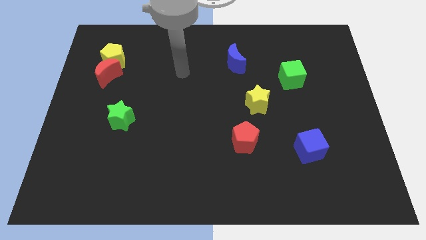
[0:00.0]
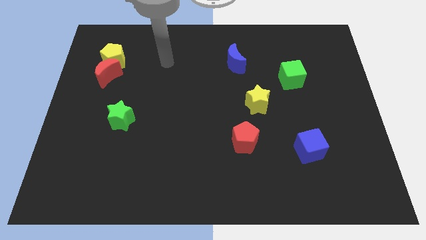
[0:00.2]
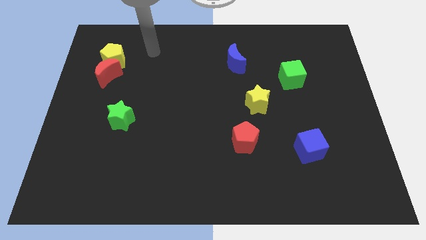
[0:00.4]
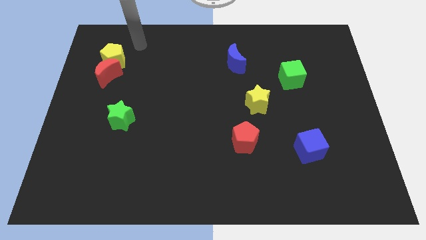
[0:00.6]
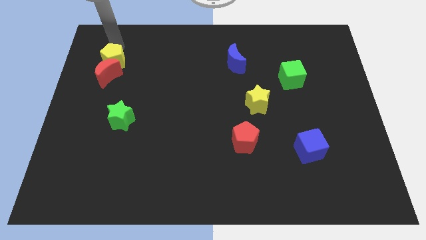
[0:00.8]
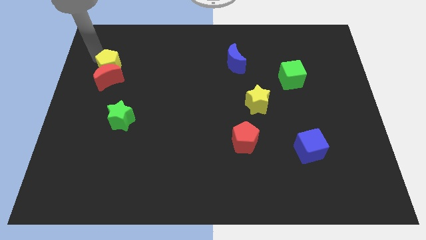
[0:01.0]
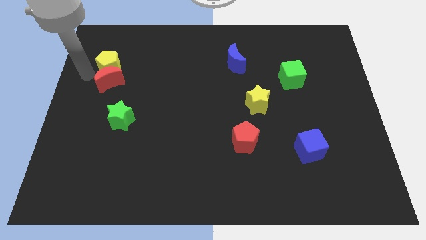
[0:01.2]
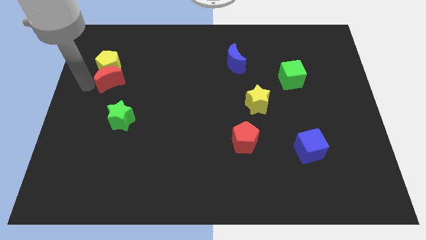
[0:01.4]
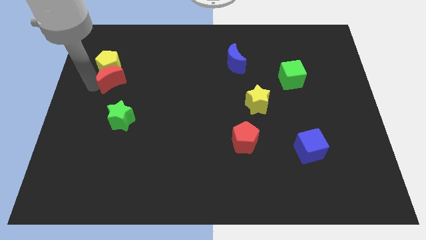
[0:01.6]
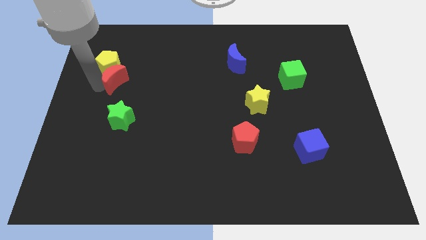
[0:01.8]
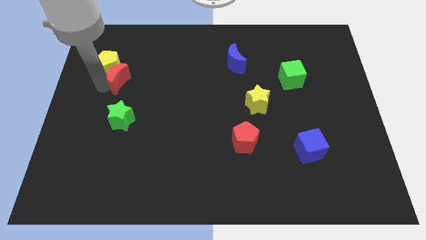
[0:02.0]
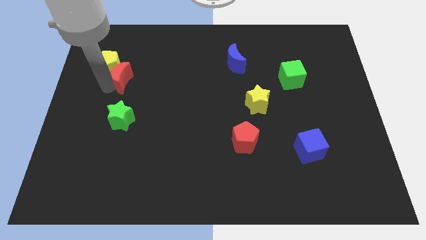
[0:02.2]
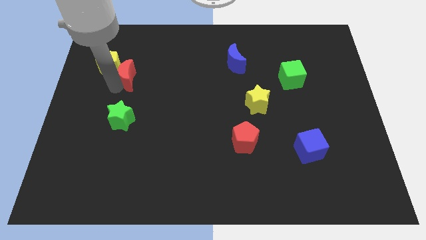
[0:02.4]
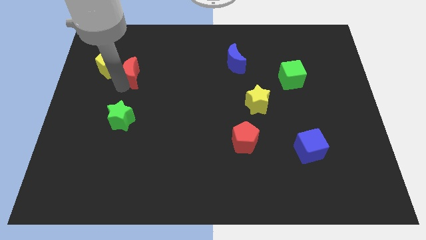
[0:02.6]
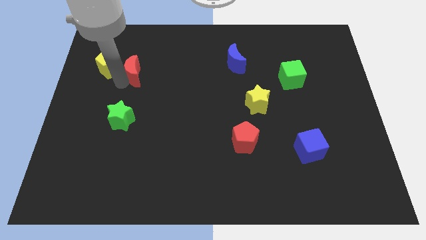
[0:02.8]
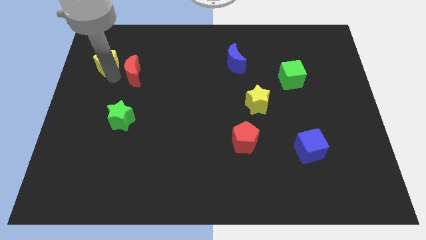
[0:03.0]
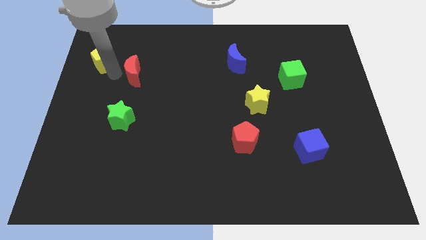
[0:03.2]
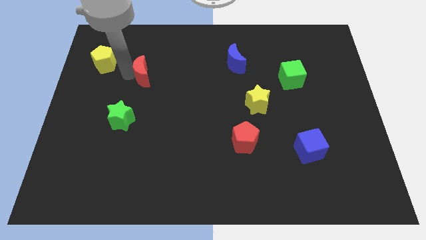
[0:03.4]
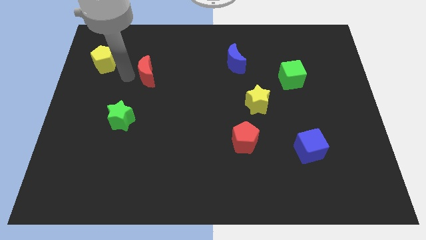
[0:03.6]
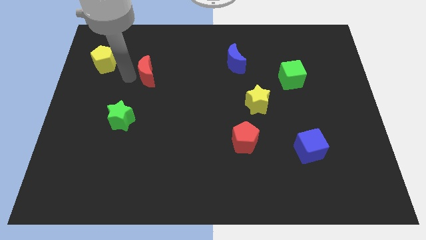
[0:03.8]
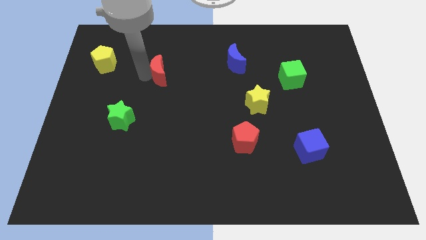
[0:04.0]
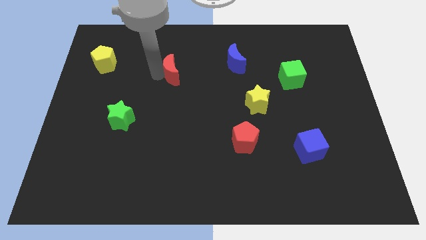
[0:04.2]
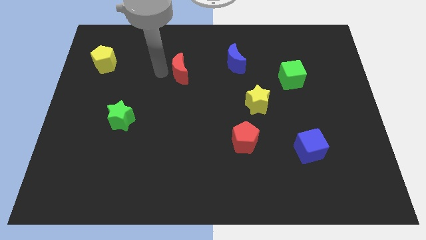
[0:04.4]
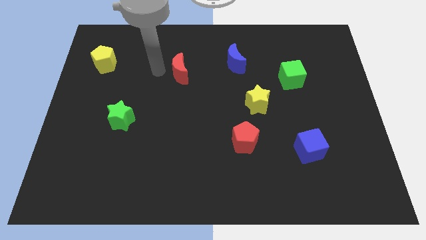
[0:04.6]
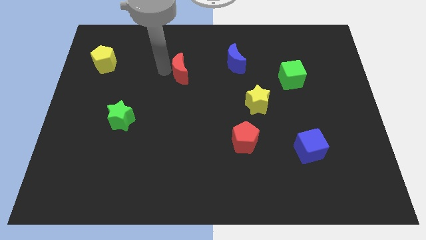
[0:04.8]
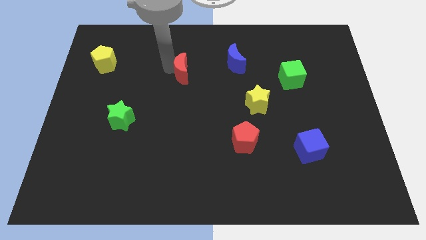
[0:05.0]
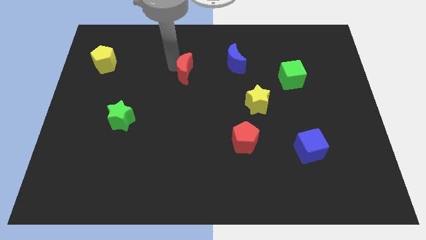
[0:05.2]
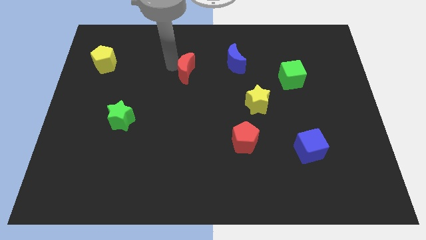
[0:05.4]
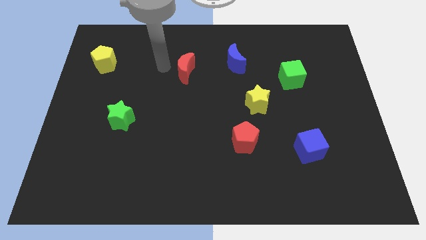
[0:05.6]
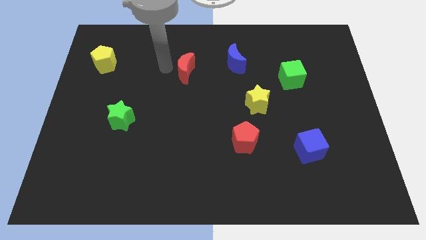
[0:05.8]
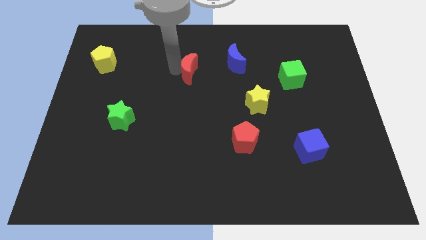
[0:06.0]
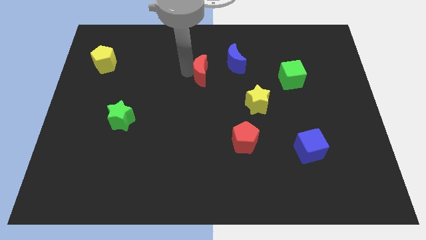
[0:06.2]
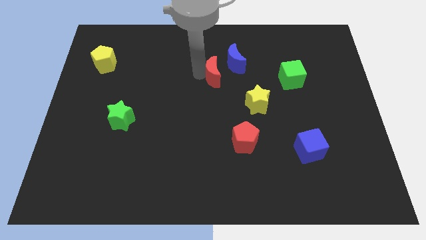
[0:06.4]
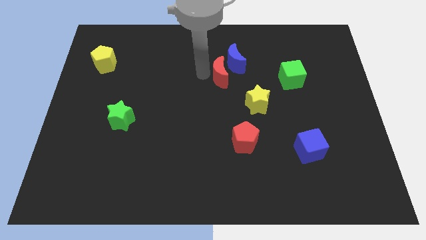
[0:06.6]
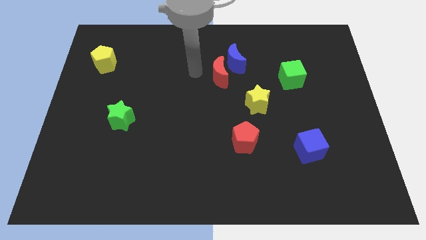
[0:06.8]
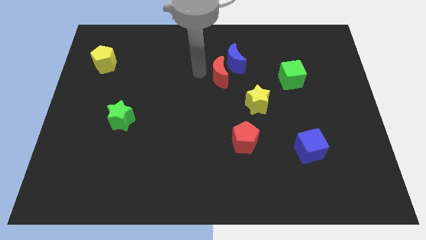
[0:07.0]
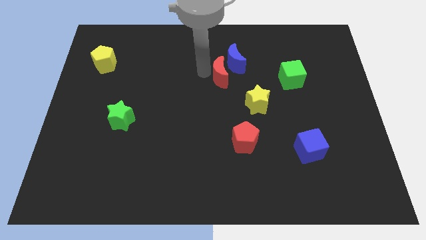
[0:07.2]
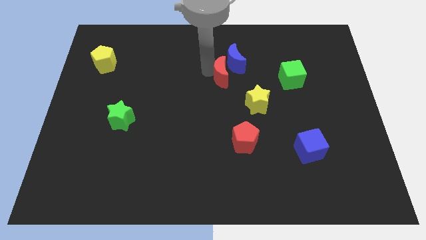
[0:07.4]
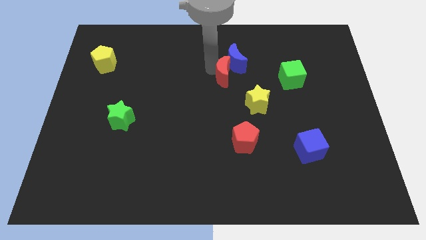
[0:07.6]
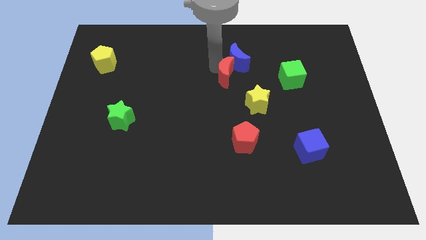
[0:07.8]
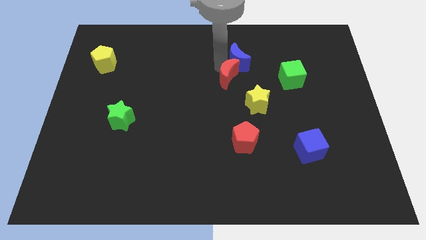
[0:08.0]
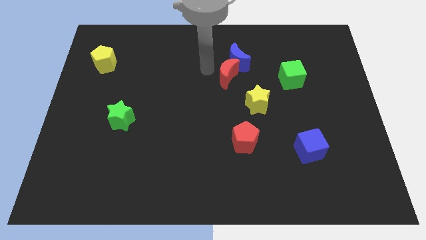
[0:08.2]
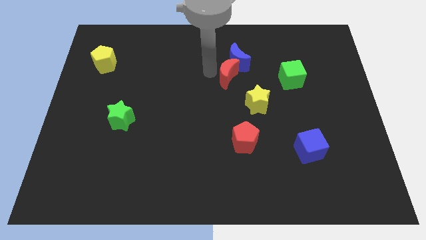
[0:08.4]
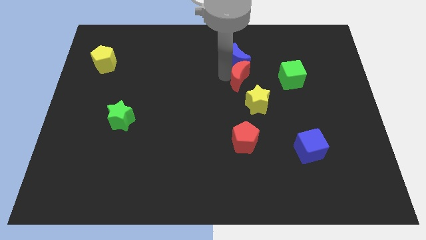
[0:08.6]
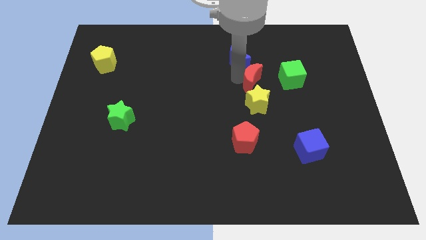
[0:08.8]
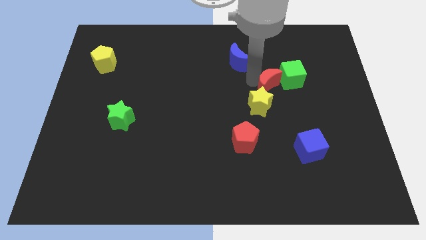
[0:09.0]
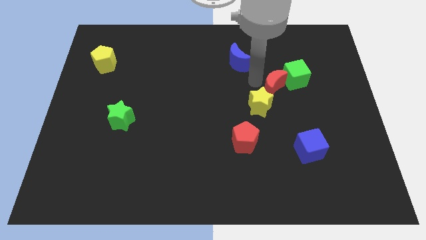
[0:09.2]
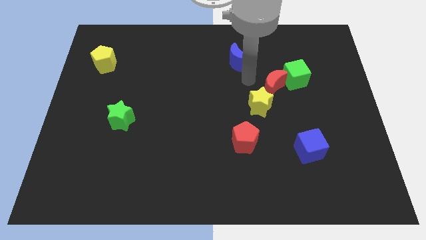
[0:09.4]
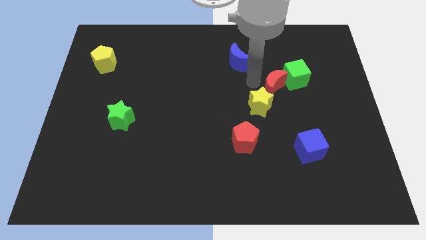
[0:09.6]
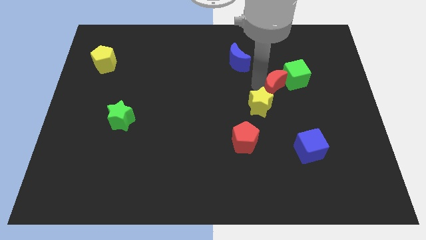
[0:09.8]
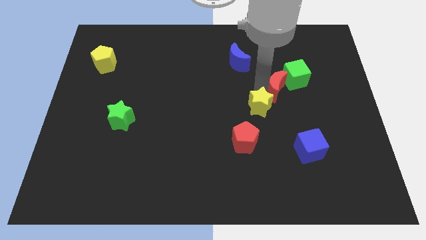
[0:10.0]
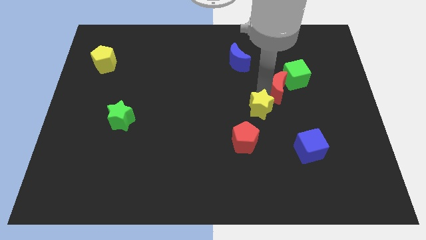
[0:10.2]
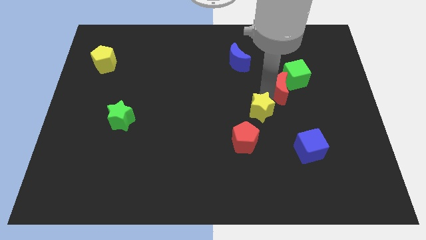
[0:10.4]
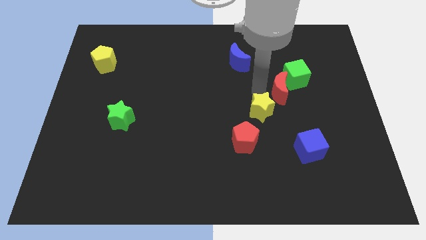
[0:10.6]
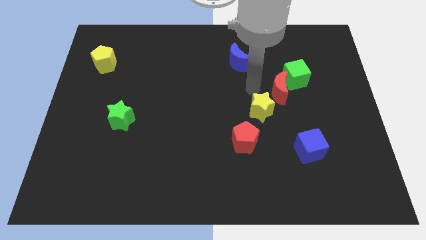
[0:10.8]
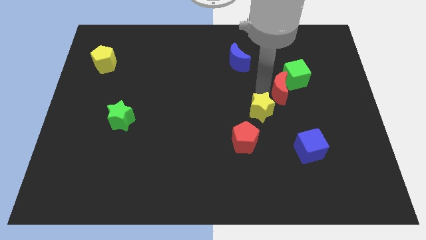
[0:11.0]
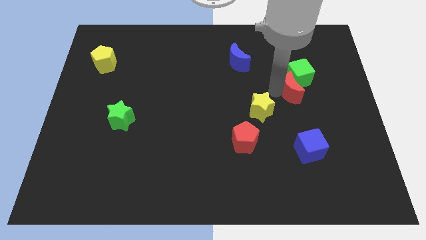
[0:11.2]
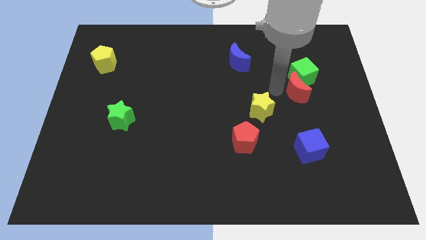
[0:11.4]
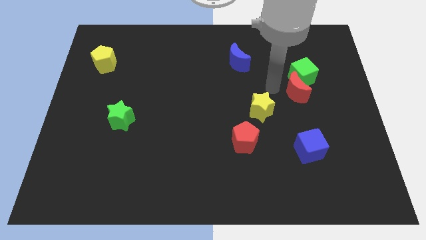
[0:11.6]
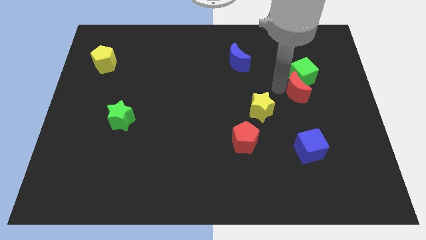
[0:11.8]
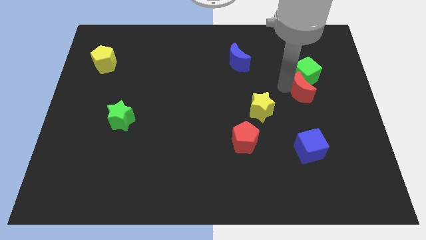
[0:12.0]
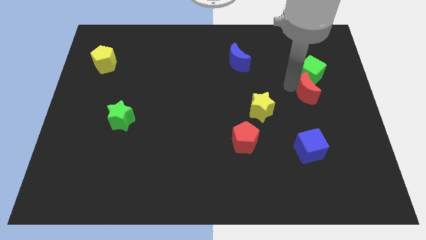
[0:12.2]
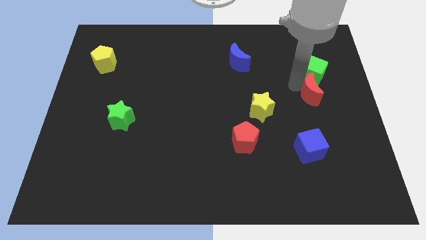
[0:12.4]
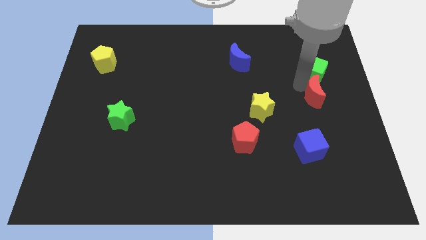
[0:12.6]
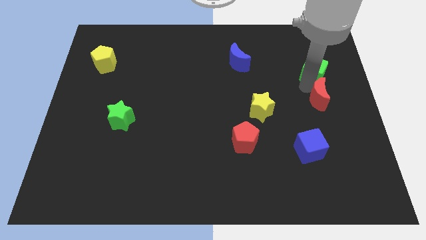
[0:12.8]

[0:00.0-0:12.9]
slide the red moon to the right side

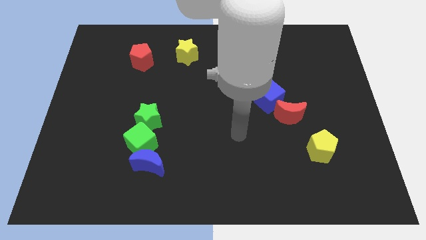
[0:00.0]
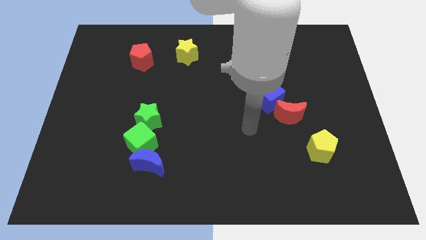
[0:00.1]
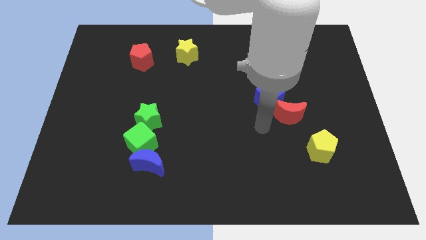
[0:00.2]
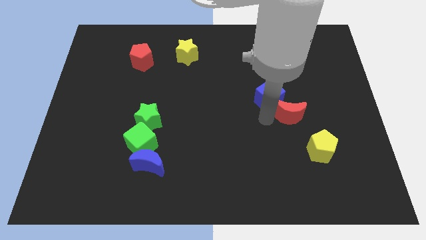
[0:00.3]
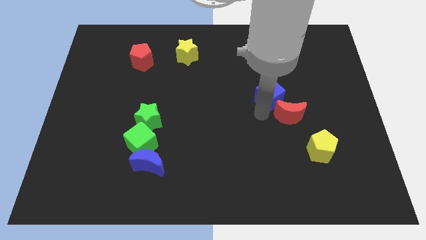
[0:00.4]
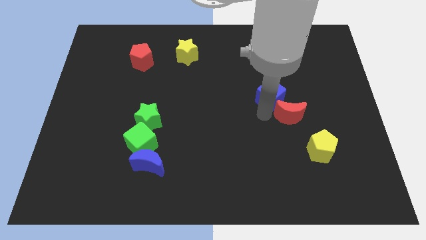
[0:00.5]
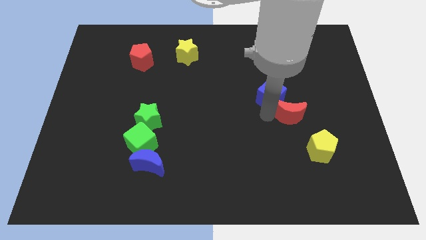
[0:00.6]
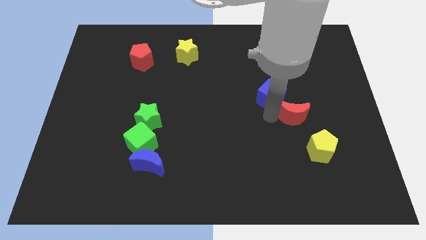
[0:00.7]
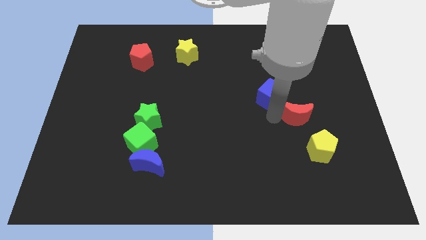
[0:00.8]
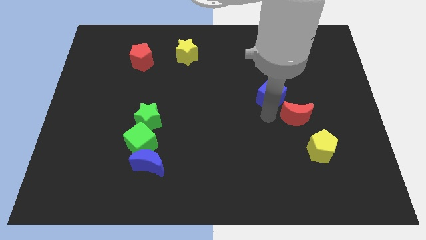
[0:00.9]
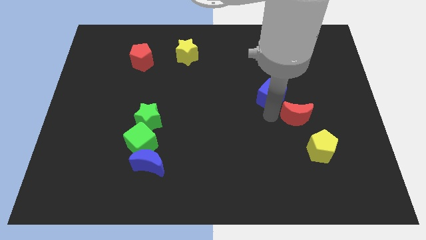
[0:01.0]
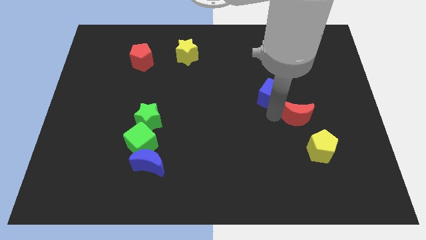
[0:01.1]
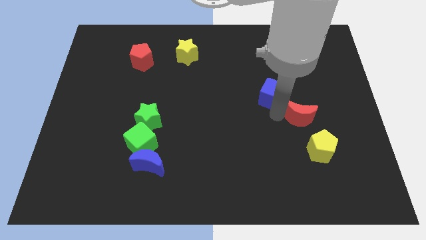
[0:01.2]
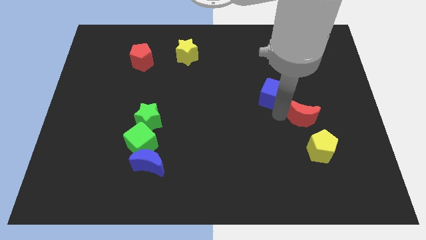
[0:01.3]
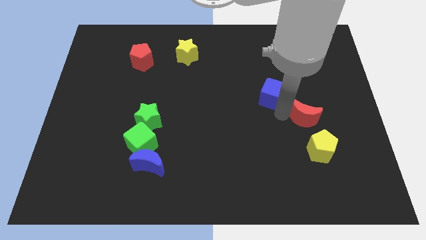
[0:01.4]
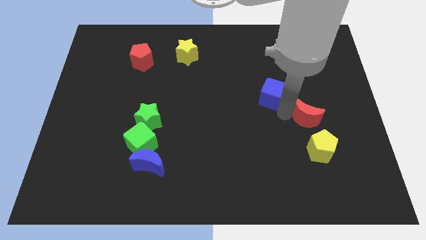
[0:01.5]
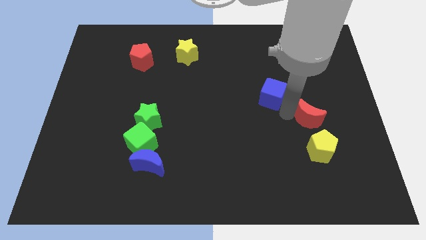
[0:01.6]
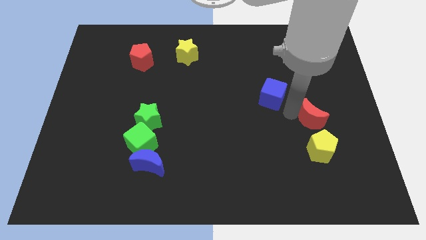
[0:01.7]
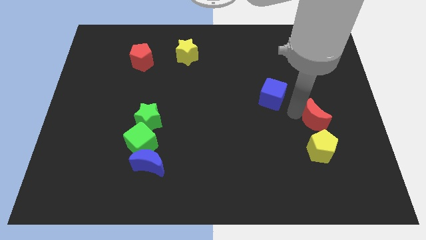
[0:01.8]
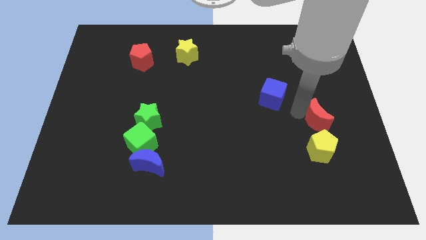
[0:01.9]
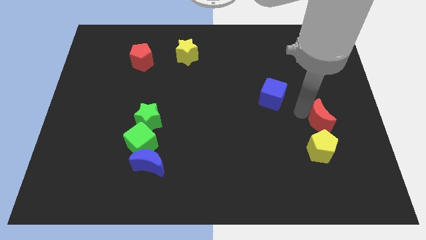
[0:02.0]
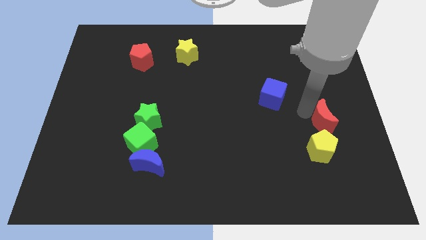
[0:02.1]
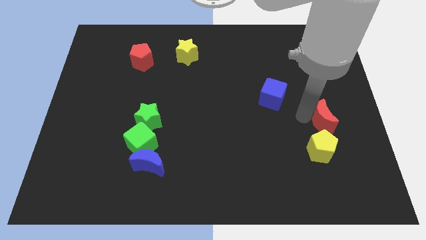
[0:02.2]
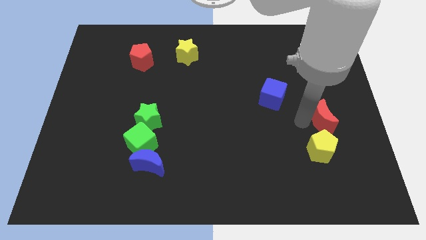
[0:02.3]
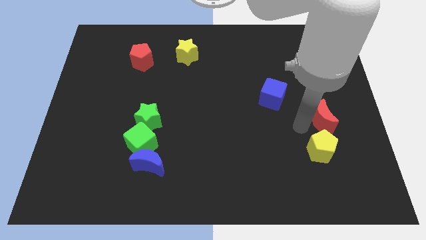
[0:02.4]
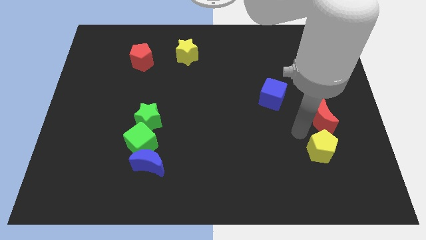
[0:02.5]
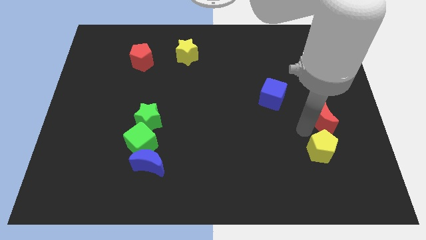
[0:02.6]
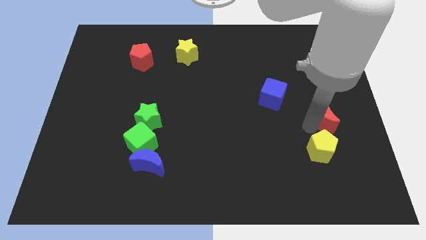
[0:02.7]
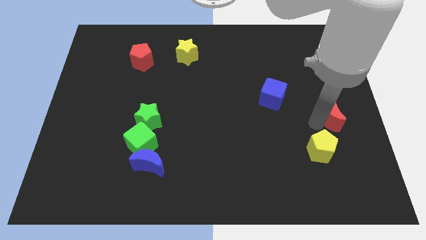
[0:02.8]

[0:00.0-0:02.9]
slide the red moon to the right side of the board
